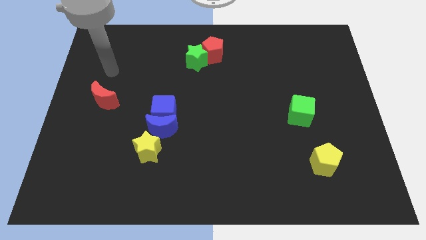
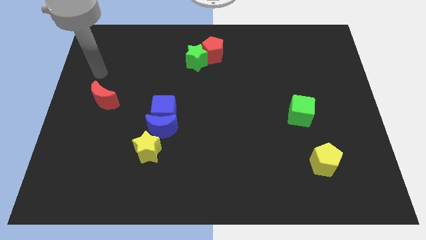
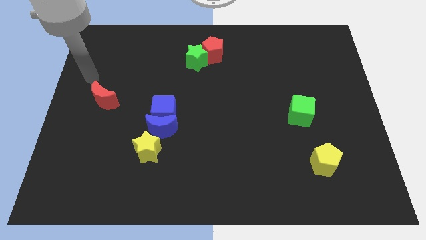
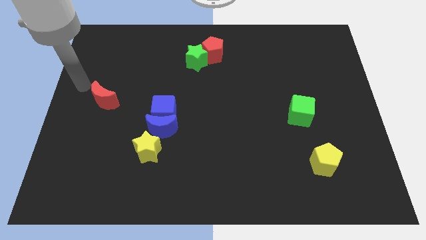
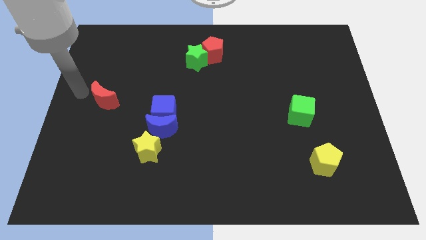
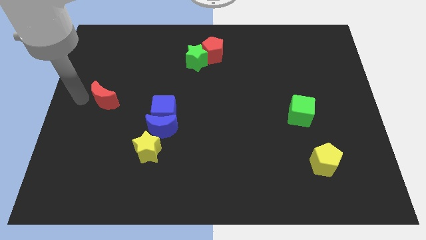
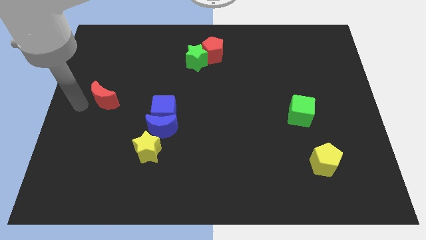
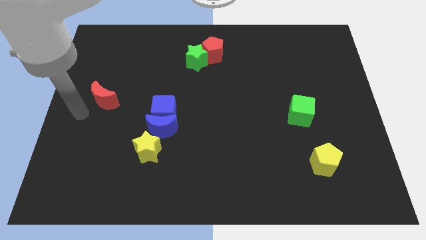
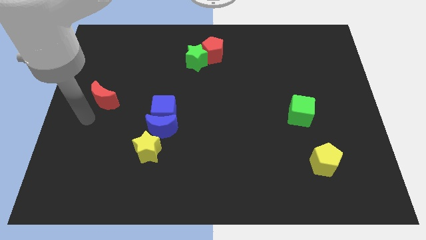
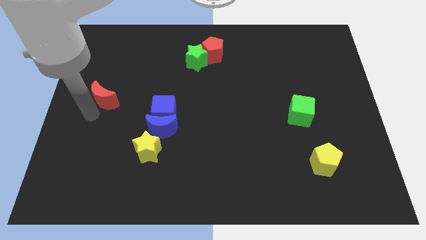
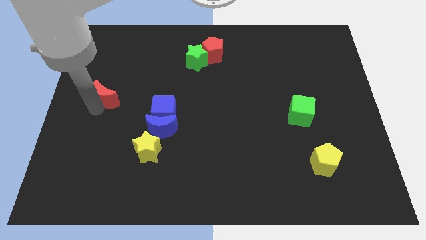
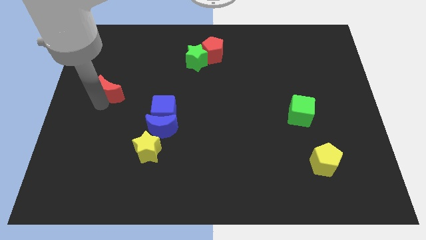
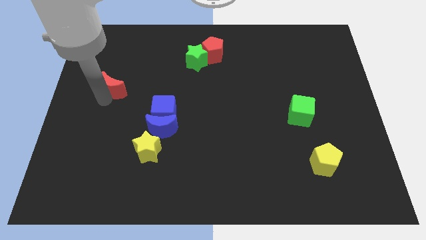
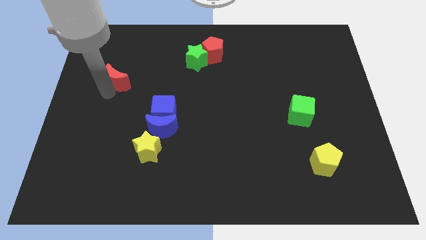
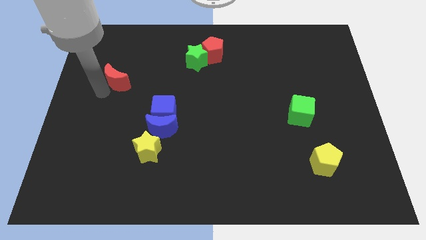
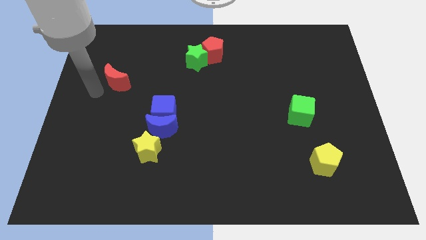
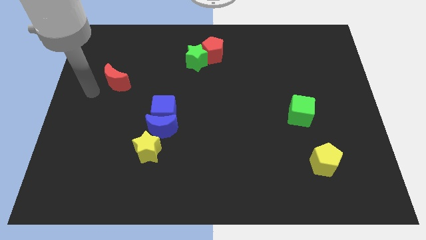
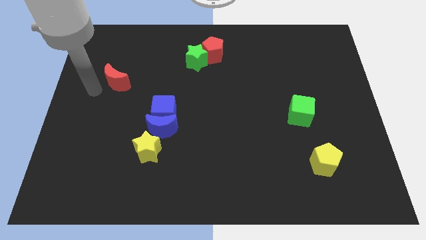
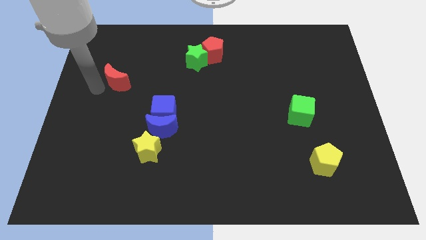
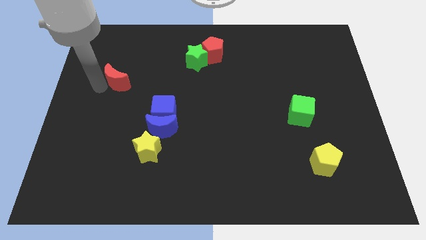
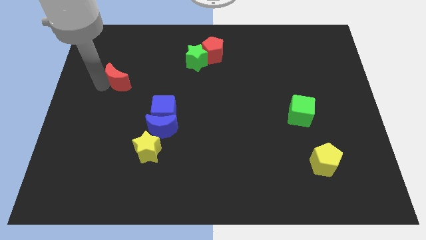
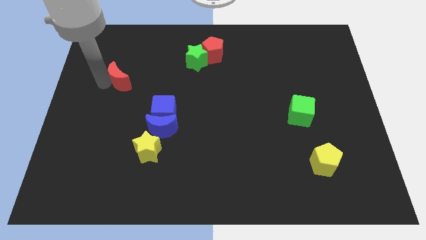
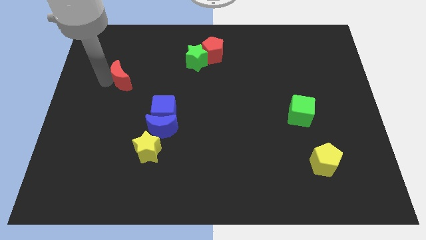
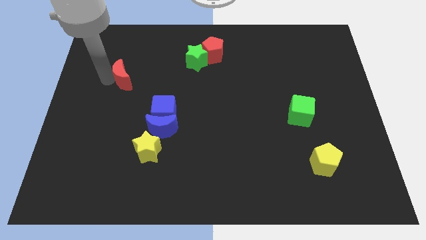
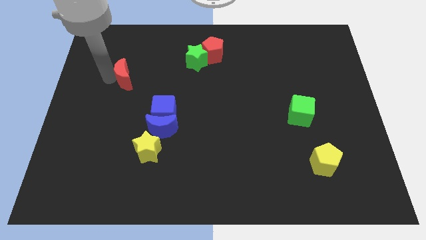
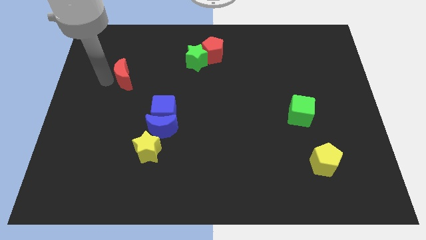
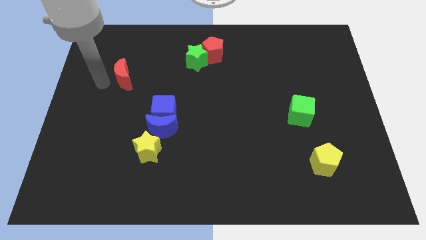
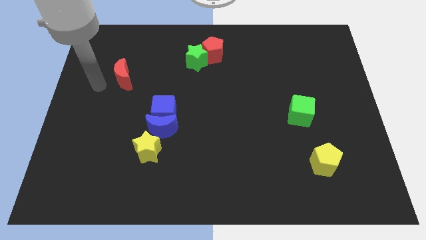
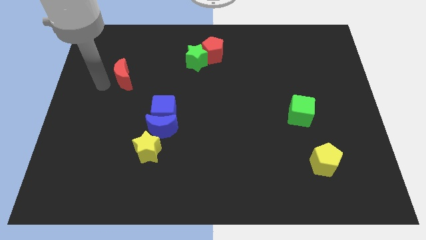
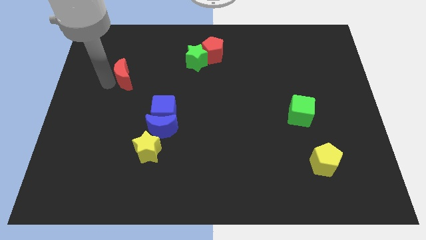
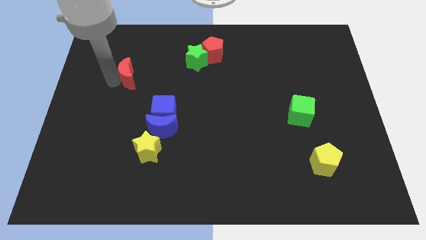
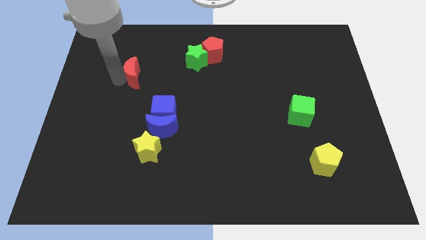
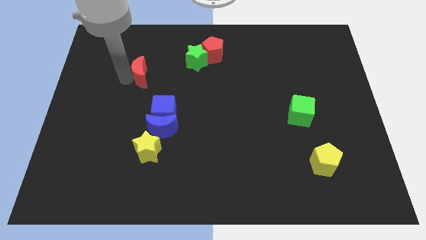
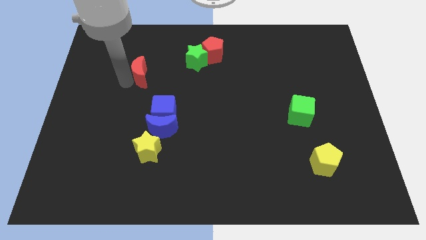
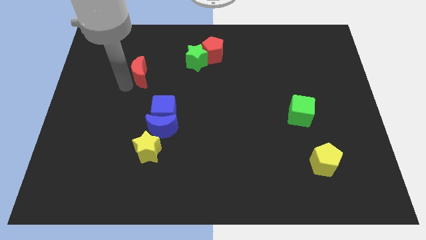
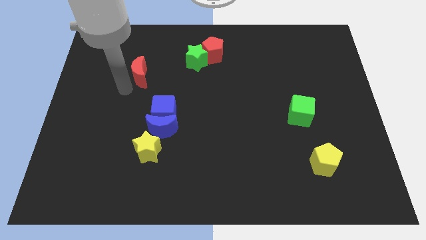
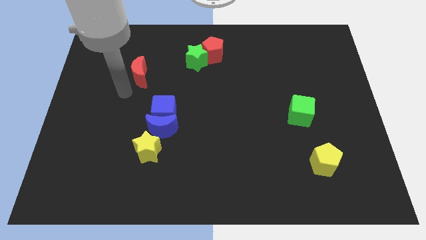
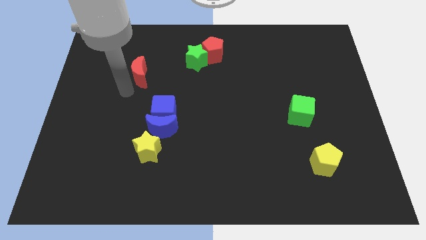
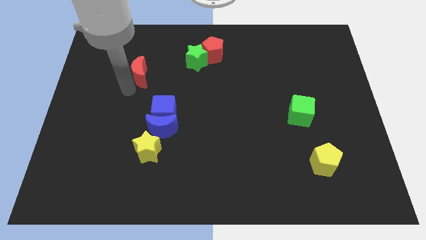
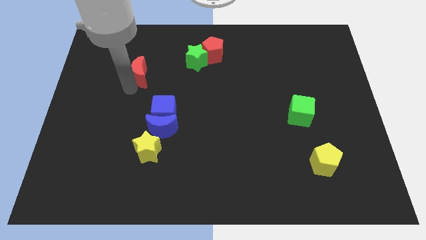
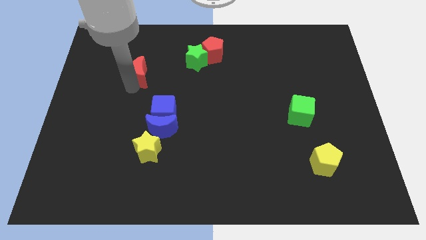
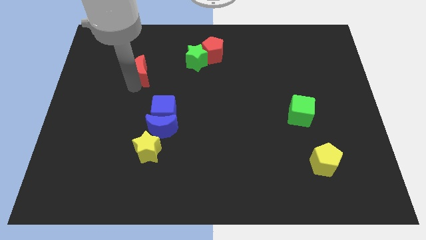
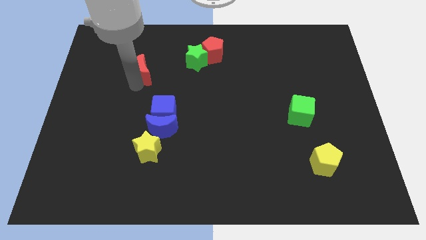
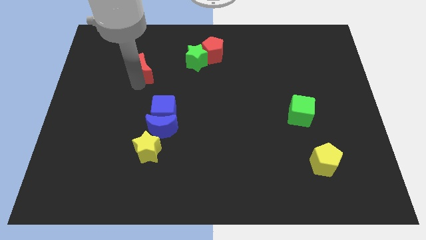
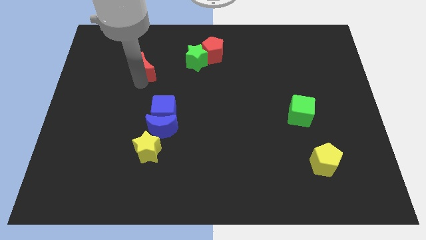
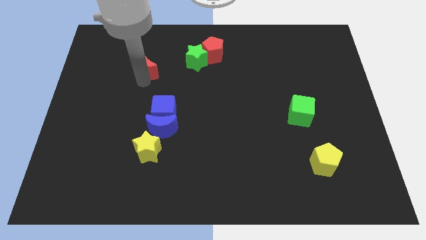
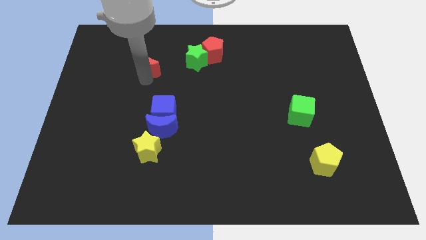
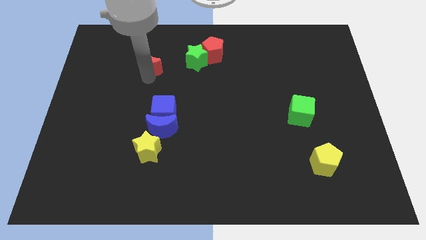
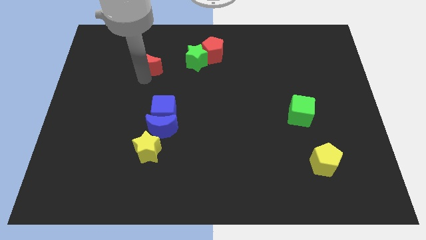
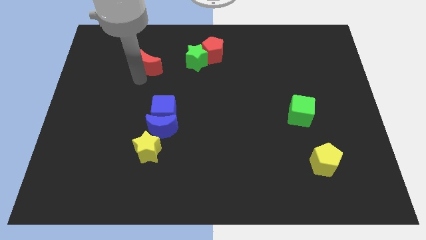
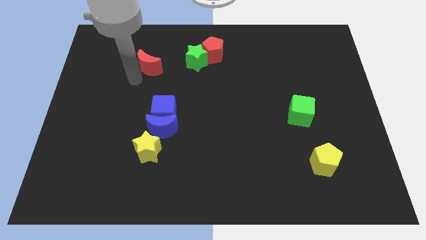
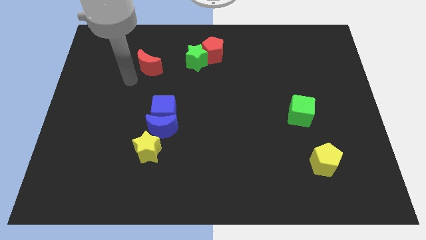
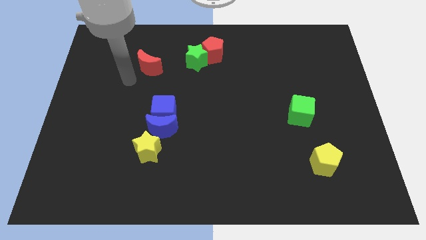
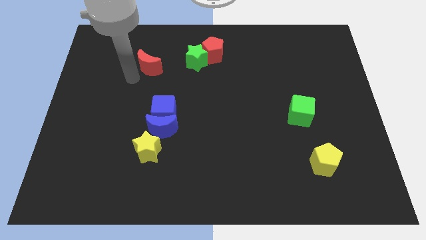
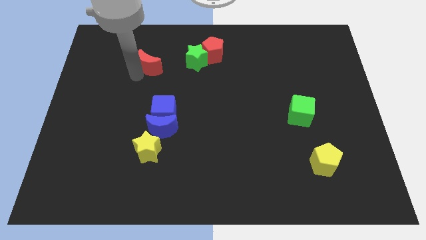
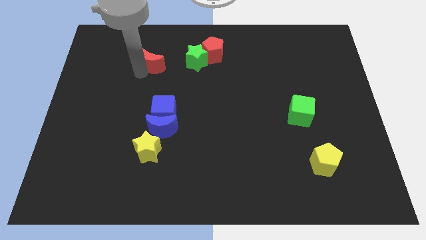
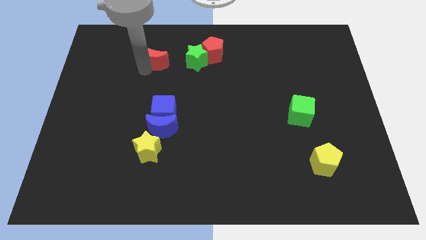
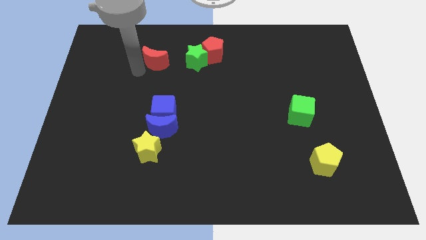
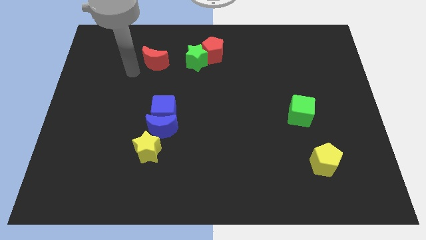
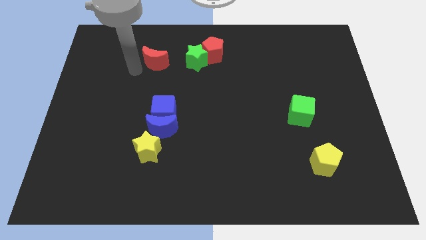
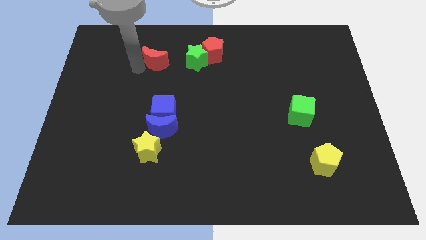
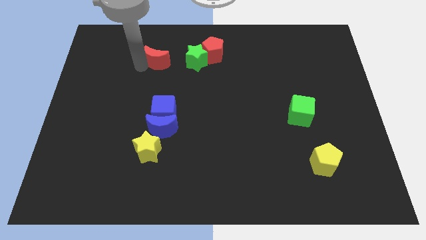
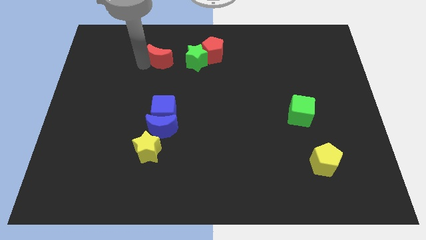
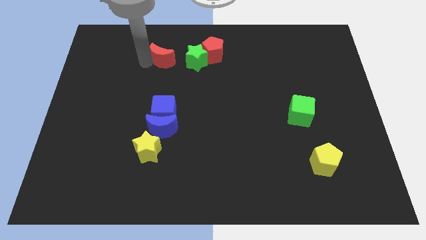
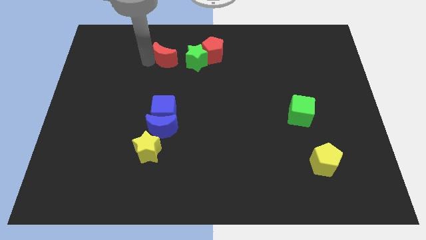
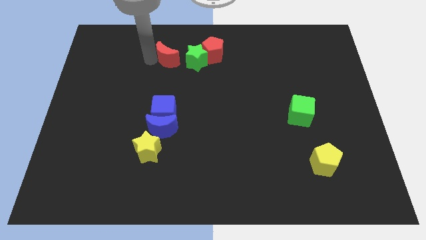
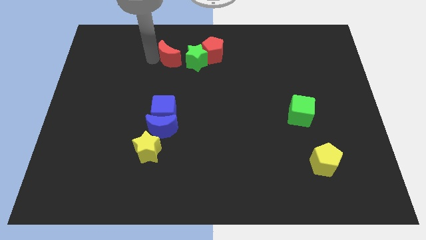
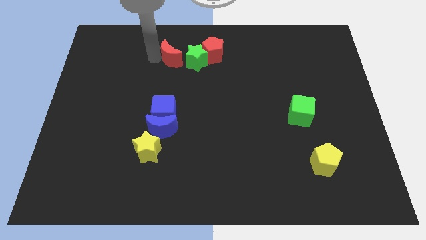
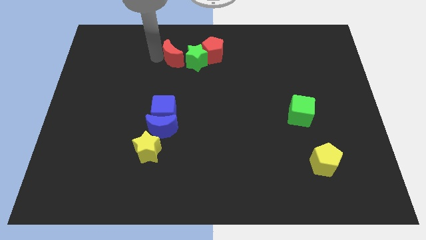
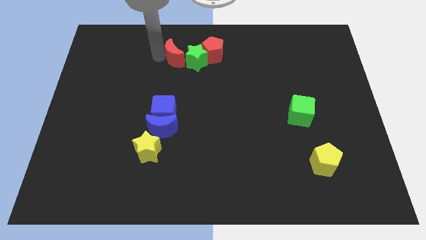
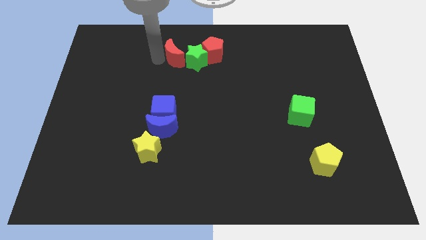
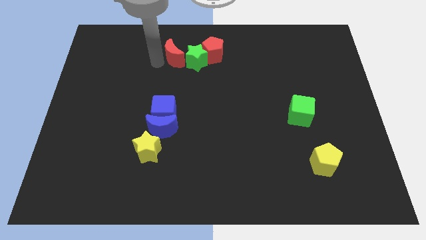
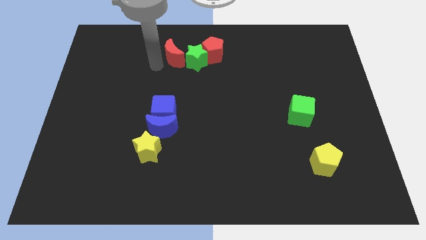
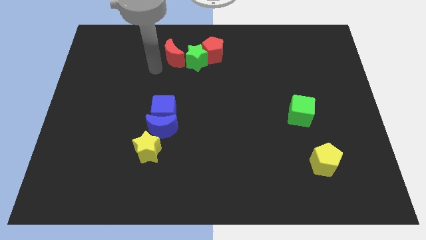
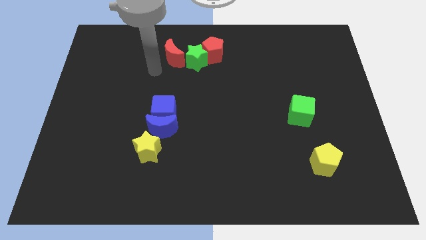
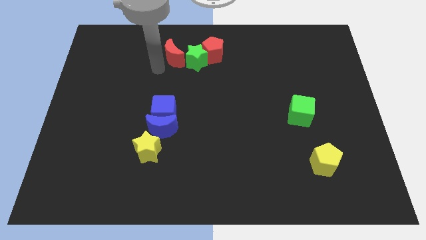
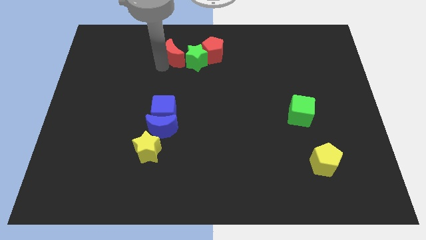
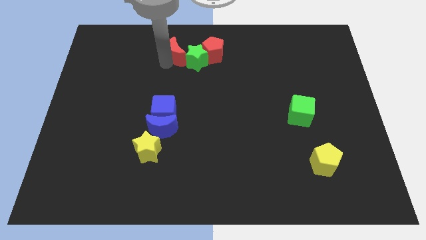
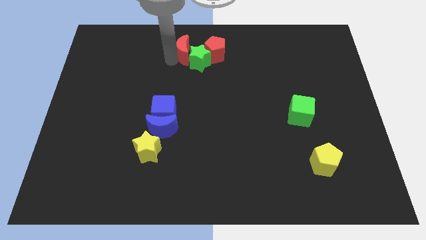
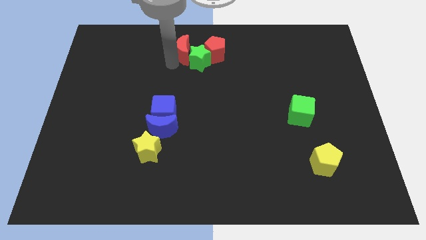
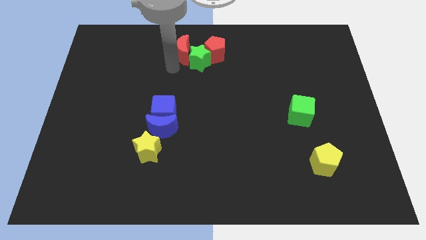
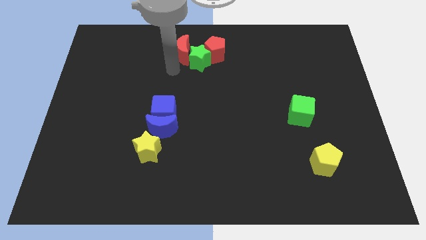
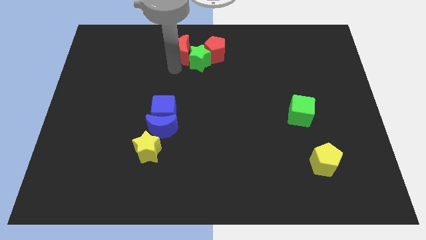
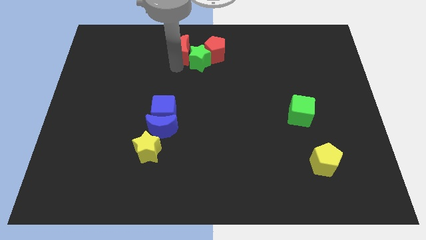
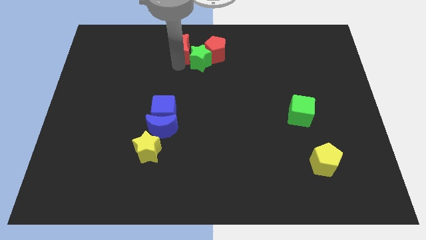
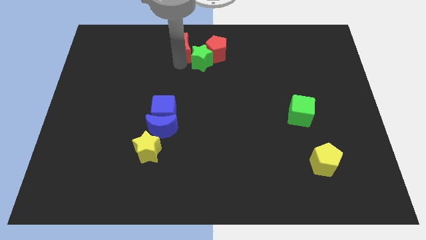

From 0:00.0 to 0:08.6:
put the red moon to the top
